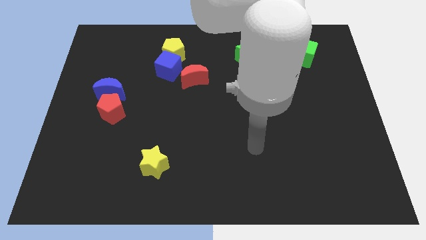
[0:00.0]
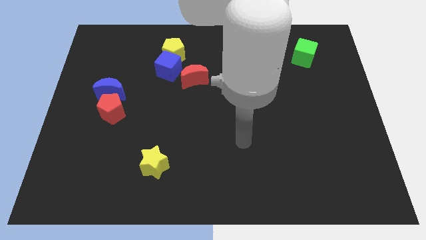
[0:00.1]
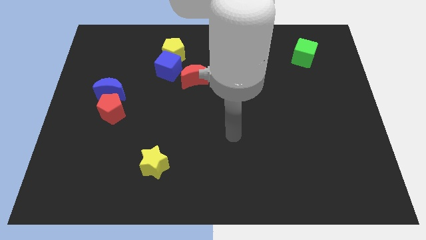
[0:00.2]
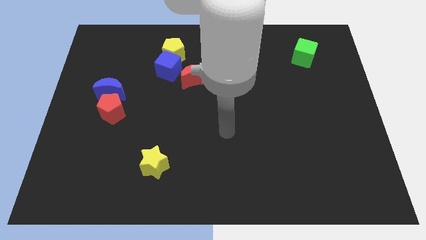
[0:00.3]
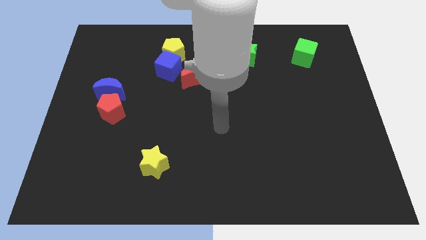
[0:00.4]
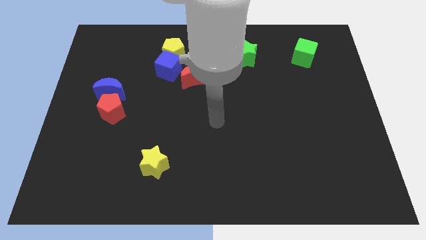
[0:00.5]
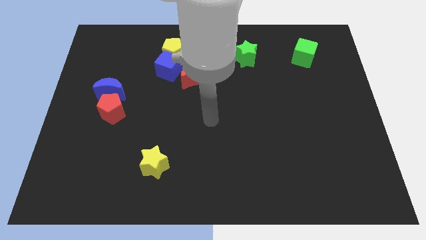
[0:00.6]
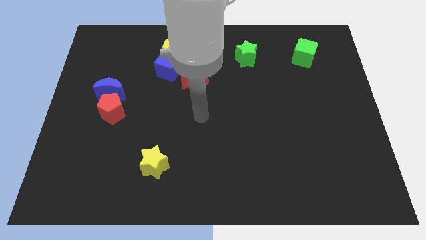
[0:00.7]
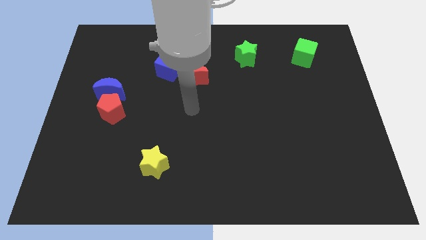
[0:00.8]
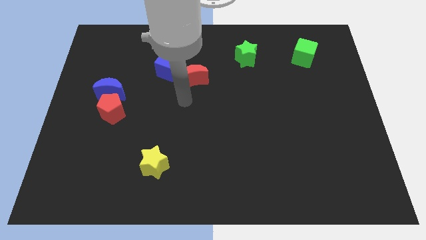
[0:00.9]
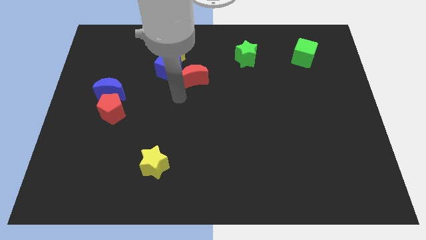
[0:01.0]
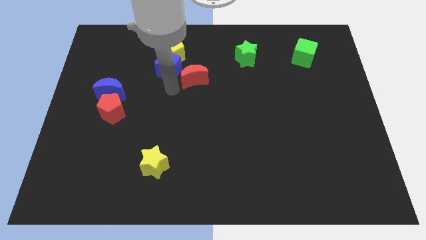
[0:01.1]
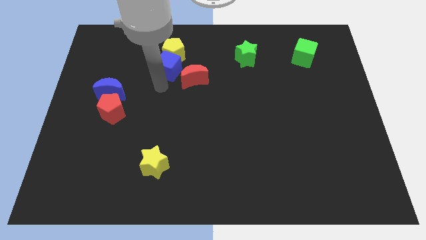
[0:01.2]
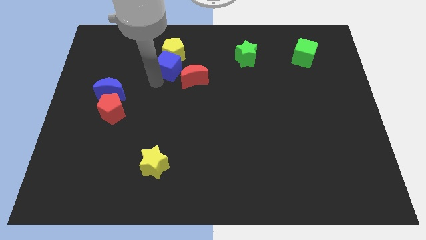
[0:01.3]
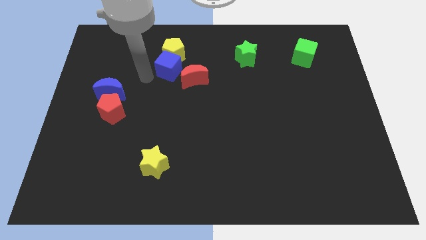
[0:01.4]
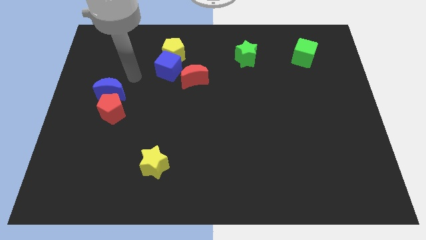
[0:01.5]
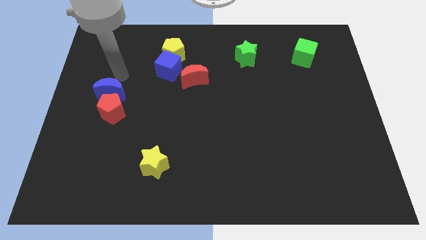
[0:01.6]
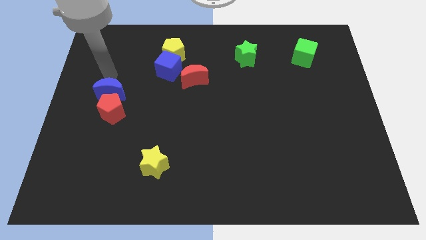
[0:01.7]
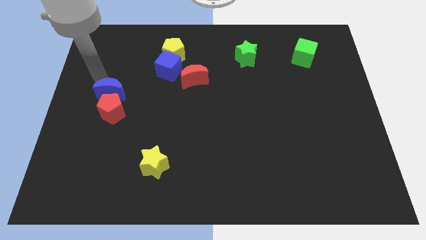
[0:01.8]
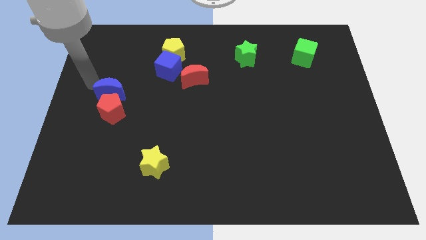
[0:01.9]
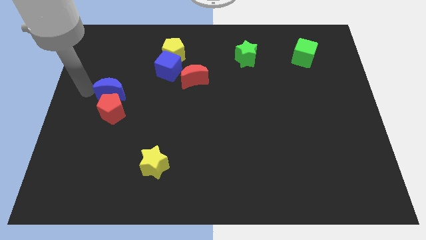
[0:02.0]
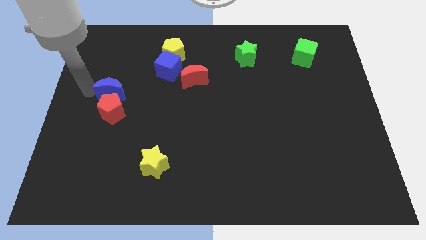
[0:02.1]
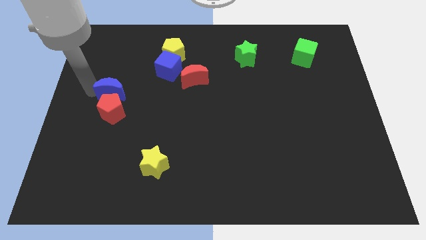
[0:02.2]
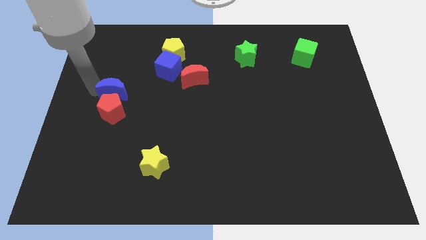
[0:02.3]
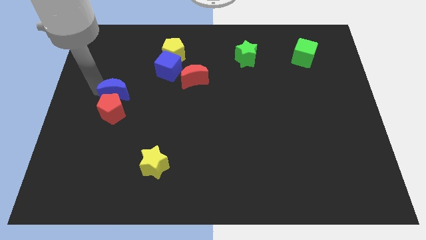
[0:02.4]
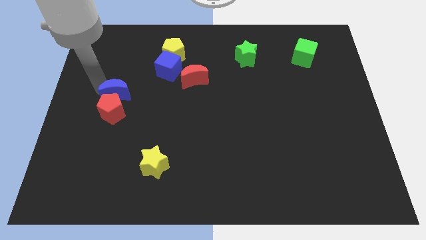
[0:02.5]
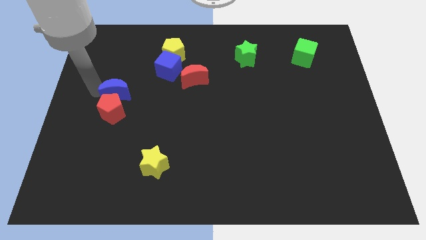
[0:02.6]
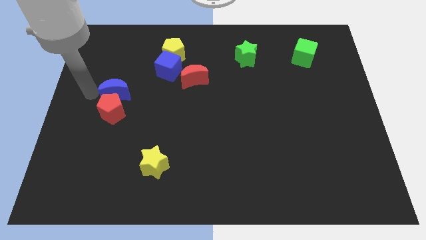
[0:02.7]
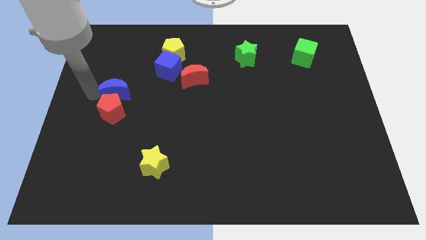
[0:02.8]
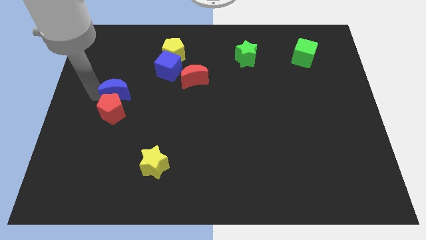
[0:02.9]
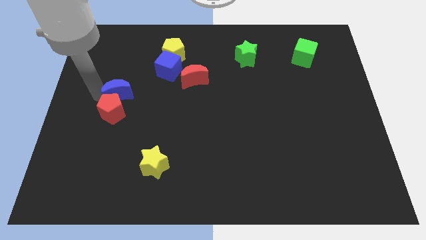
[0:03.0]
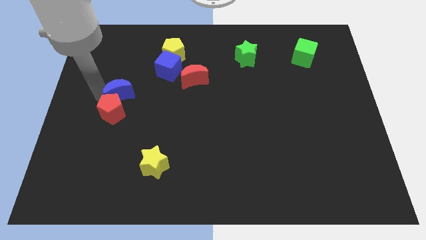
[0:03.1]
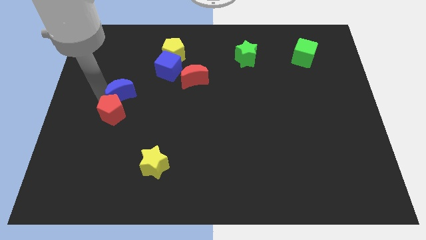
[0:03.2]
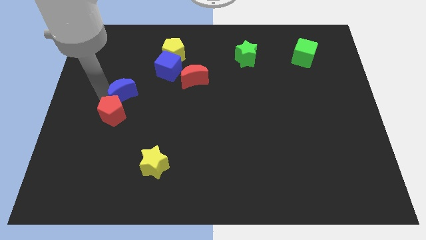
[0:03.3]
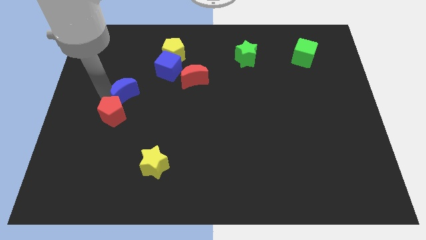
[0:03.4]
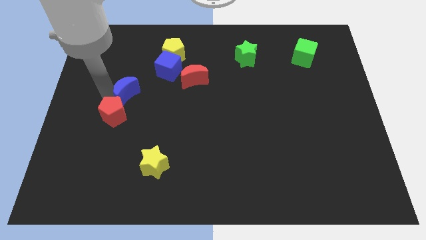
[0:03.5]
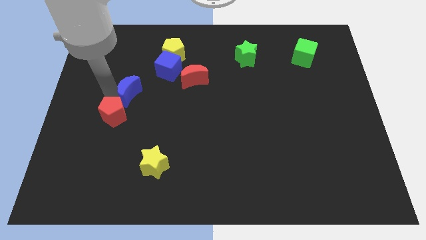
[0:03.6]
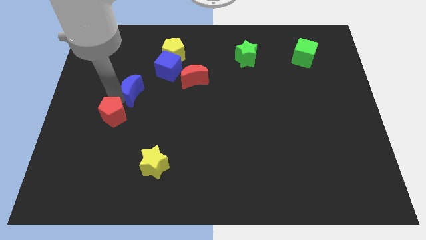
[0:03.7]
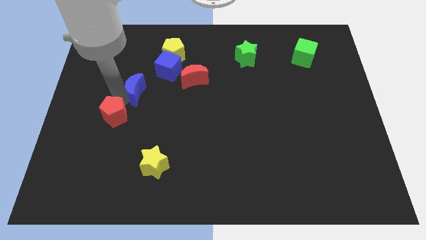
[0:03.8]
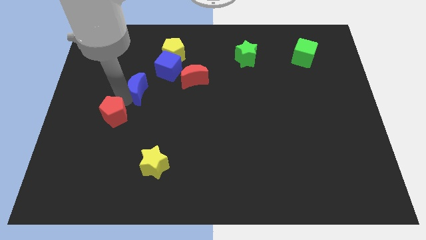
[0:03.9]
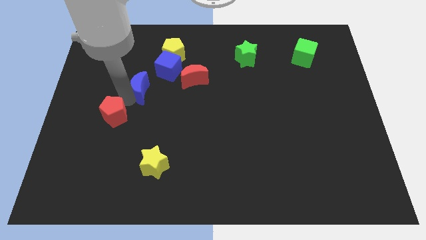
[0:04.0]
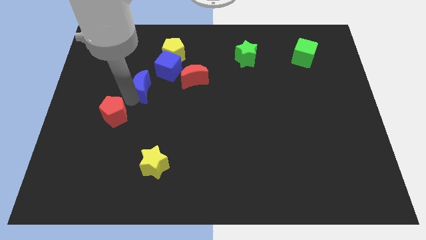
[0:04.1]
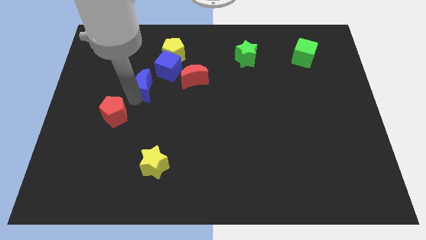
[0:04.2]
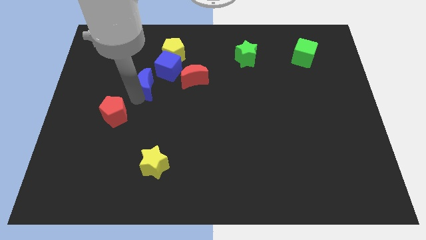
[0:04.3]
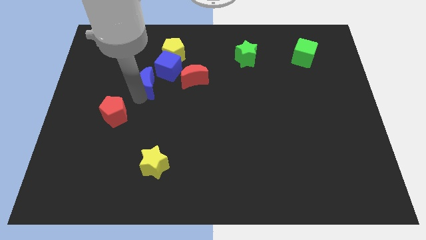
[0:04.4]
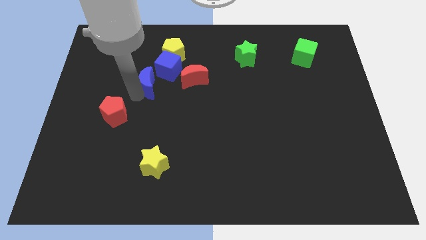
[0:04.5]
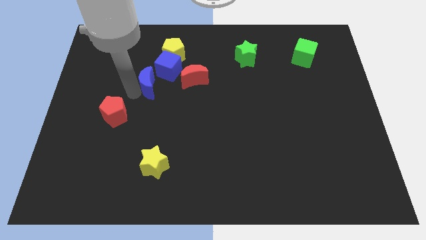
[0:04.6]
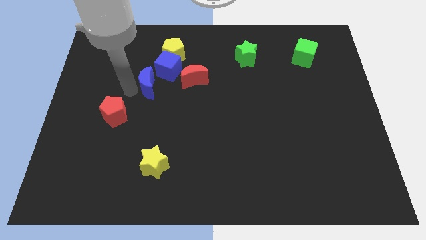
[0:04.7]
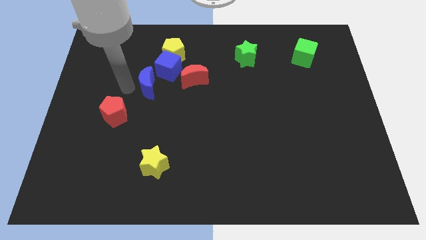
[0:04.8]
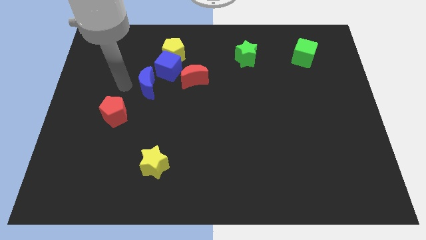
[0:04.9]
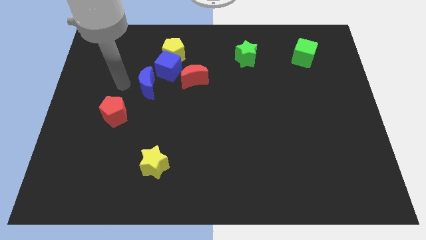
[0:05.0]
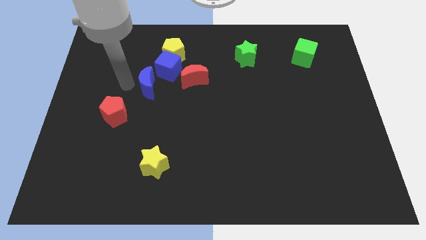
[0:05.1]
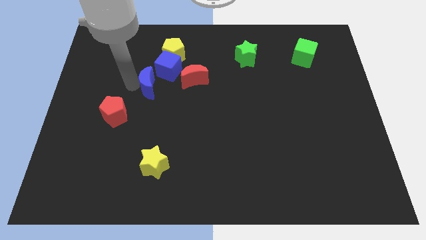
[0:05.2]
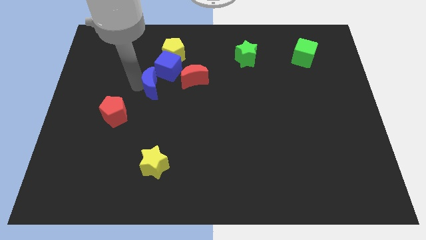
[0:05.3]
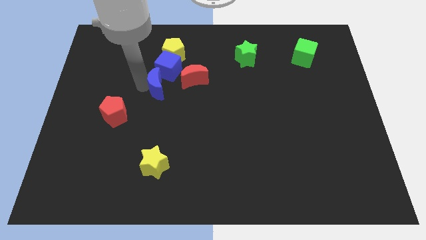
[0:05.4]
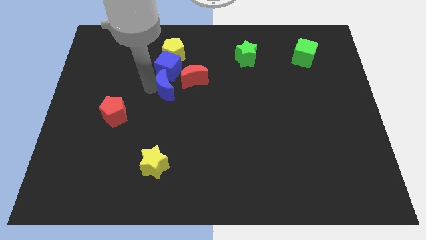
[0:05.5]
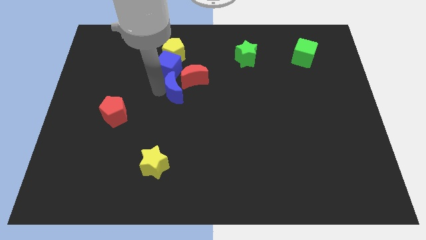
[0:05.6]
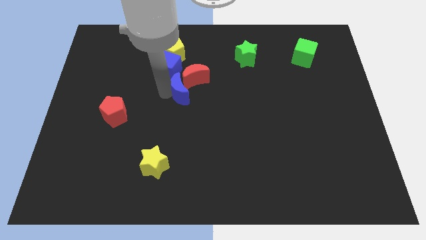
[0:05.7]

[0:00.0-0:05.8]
push the blue moon towards the red moon
